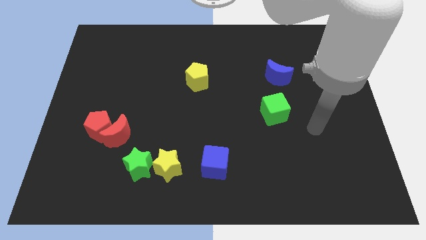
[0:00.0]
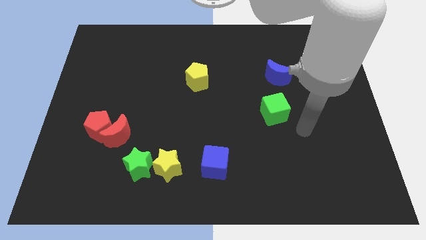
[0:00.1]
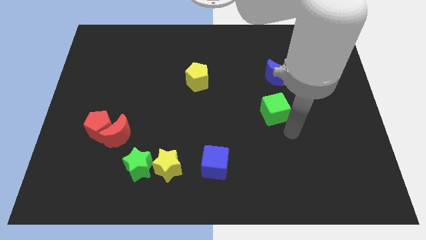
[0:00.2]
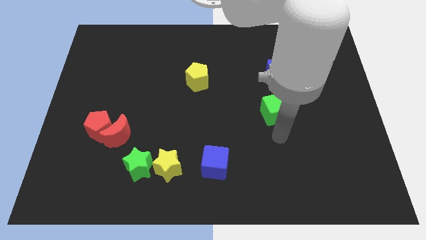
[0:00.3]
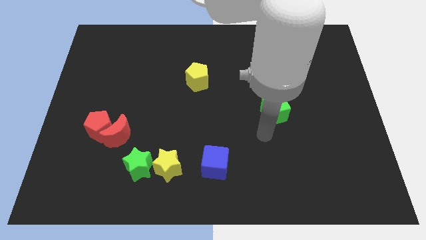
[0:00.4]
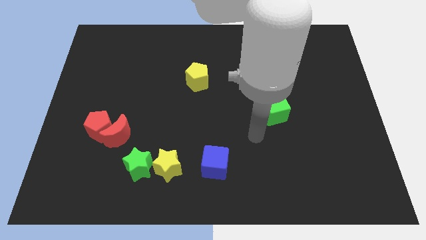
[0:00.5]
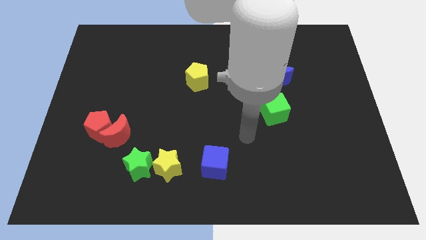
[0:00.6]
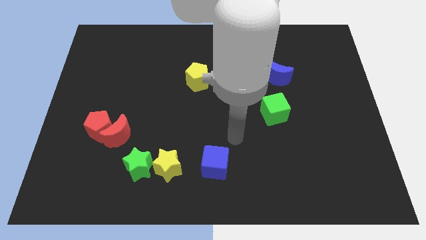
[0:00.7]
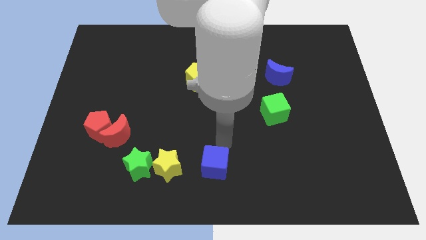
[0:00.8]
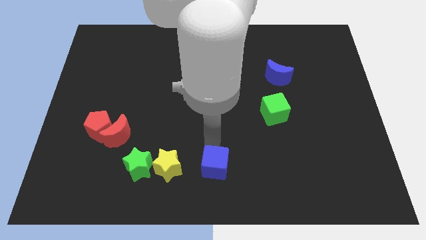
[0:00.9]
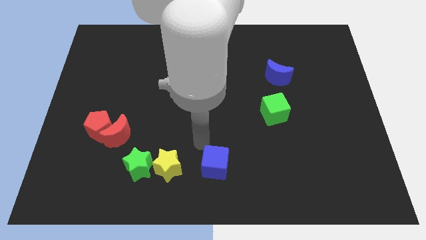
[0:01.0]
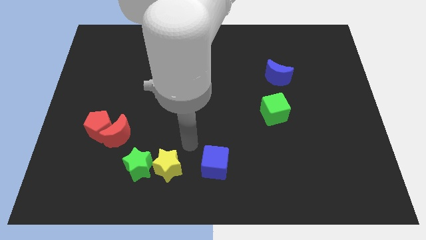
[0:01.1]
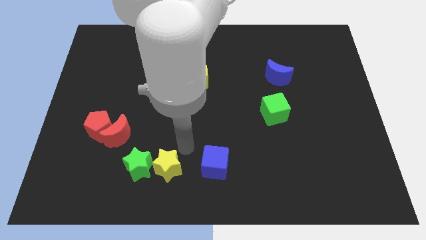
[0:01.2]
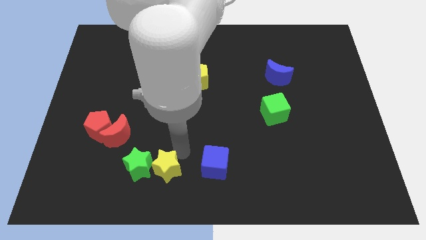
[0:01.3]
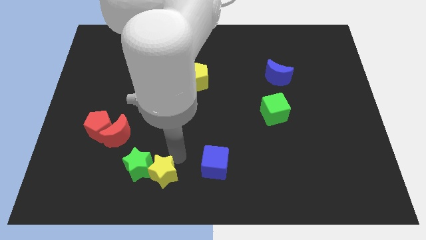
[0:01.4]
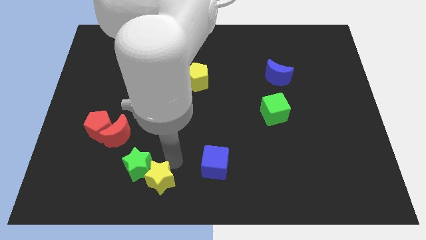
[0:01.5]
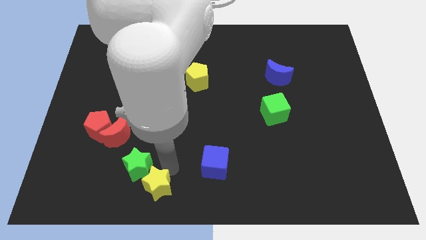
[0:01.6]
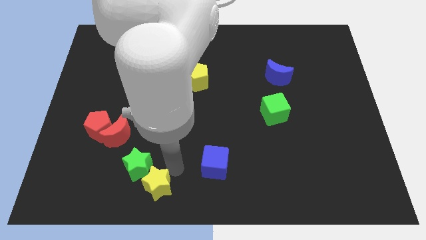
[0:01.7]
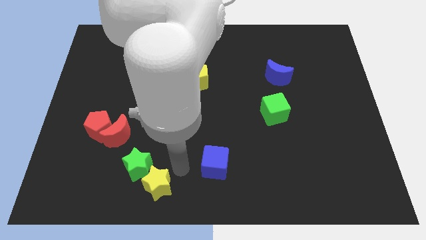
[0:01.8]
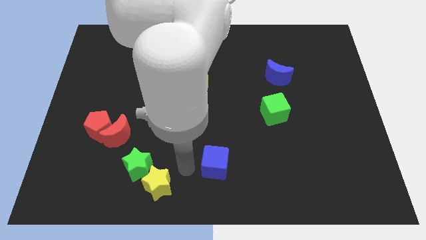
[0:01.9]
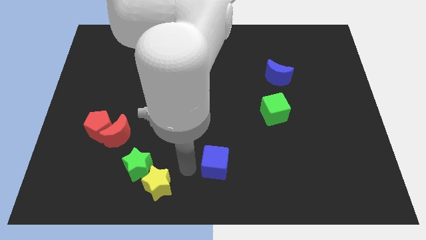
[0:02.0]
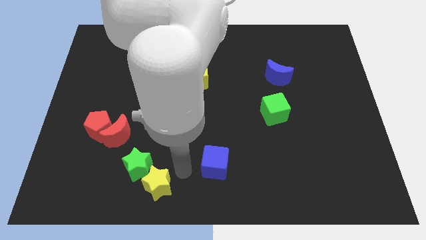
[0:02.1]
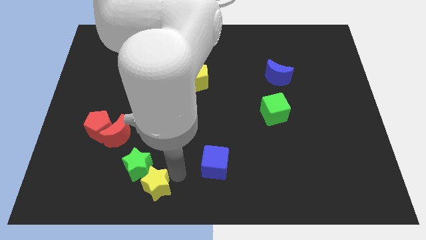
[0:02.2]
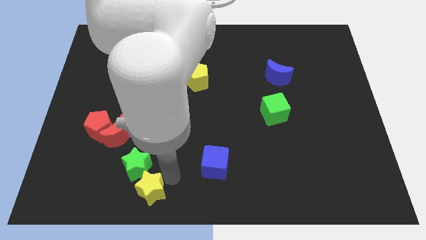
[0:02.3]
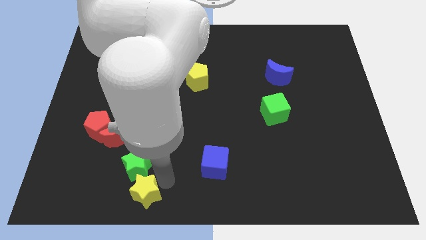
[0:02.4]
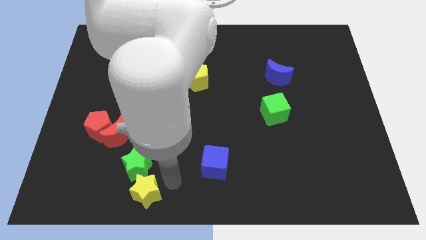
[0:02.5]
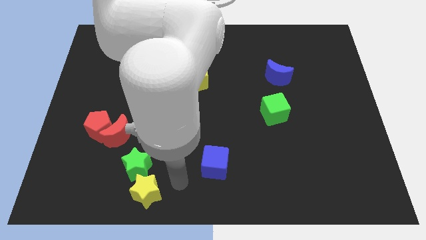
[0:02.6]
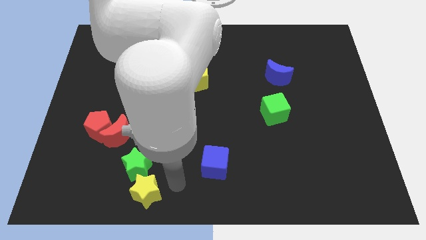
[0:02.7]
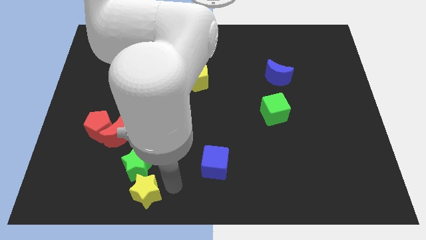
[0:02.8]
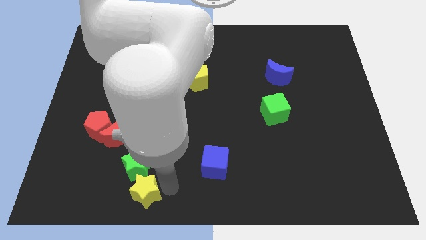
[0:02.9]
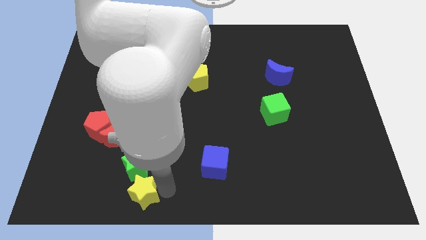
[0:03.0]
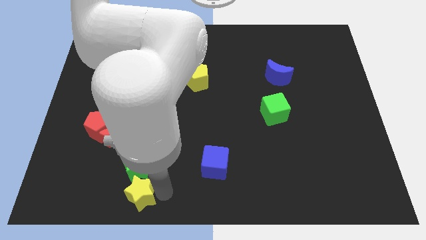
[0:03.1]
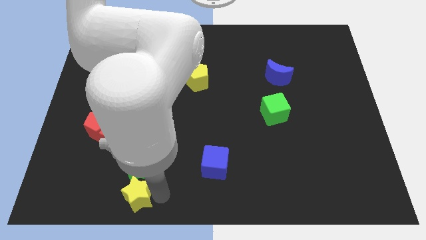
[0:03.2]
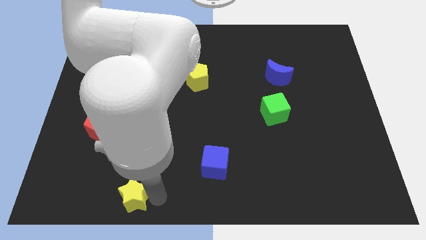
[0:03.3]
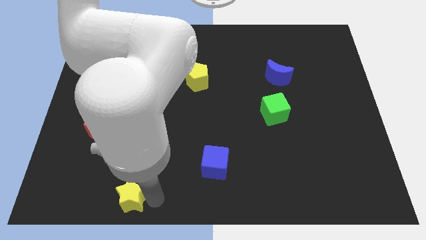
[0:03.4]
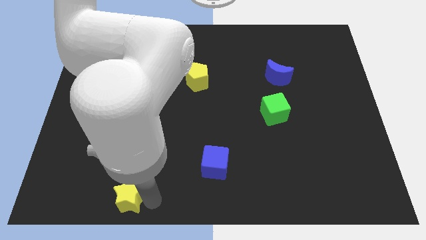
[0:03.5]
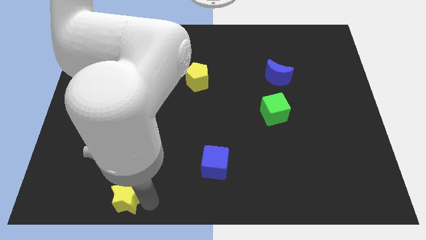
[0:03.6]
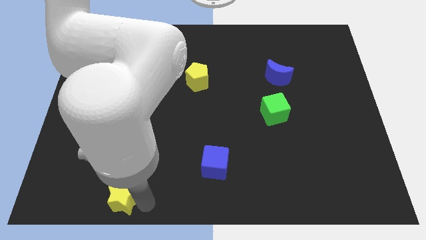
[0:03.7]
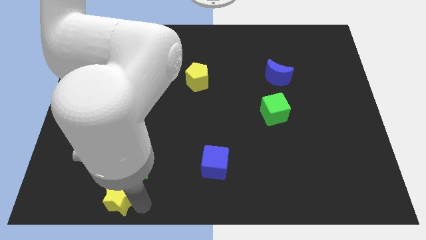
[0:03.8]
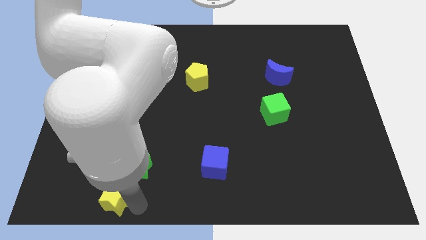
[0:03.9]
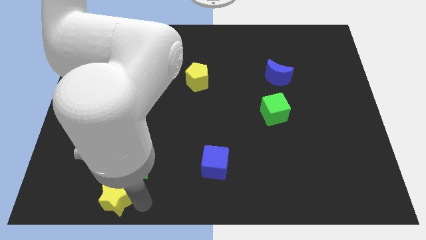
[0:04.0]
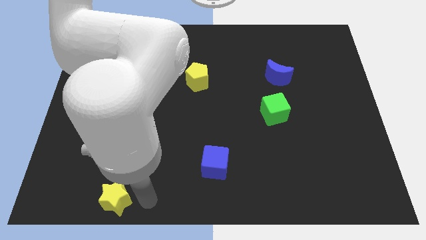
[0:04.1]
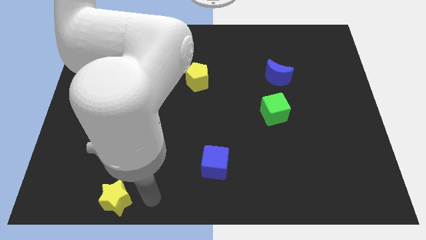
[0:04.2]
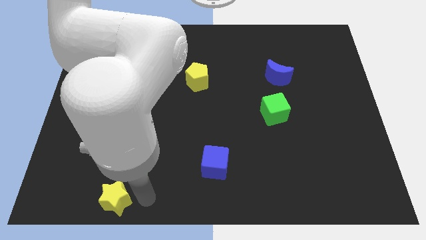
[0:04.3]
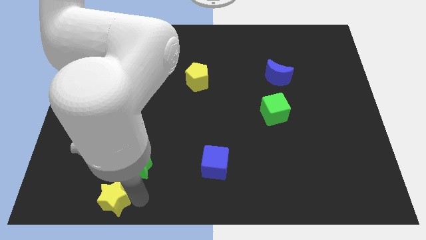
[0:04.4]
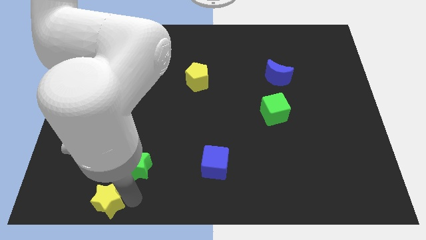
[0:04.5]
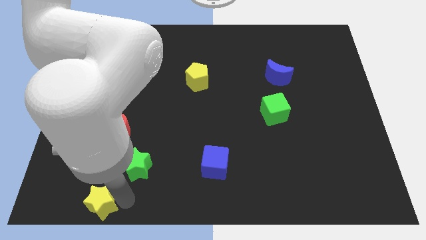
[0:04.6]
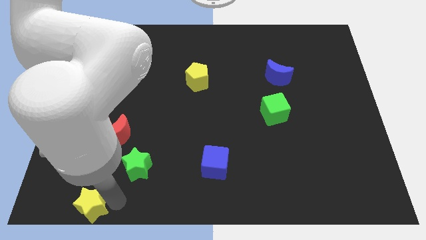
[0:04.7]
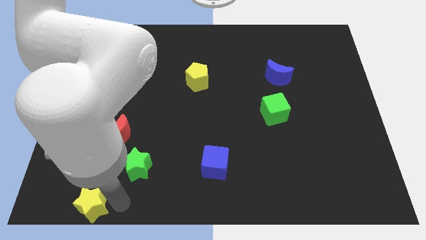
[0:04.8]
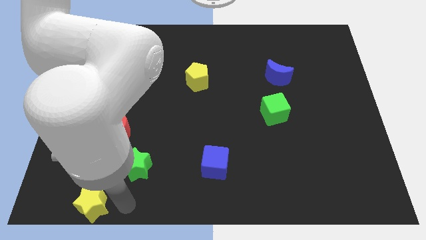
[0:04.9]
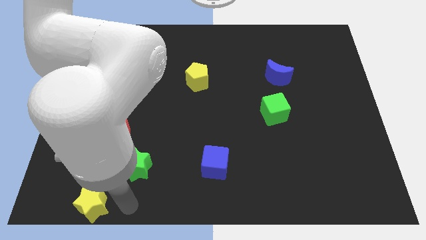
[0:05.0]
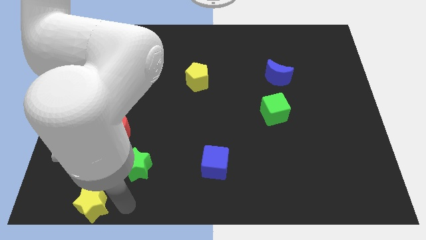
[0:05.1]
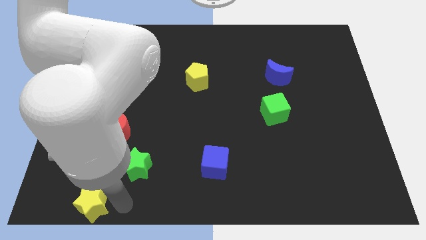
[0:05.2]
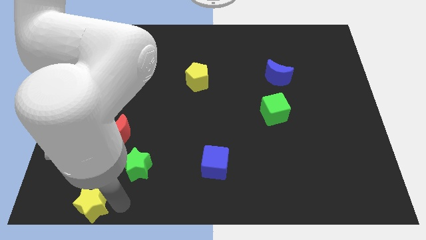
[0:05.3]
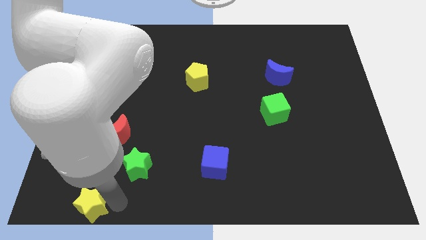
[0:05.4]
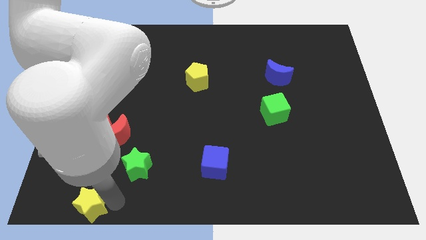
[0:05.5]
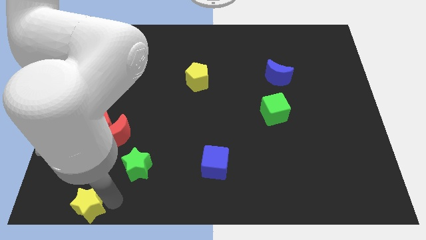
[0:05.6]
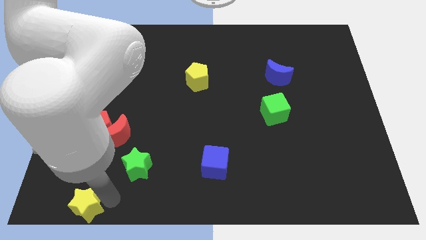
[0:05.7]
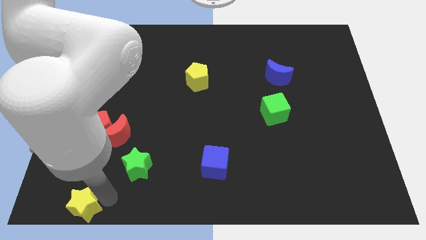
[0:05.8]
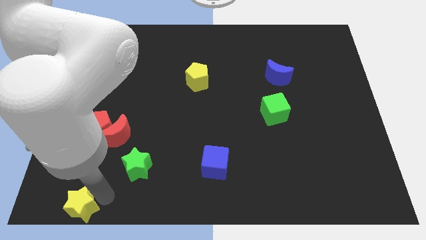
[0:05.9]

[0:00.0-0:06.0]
move the yellow star to the lower left corner

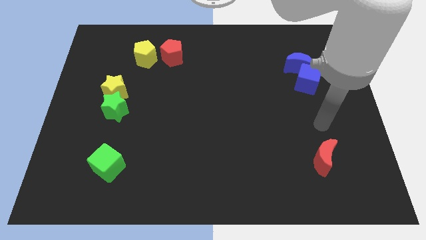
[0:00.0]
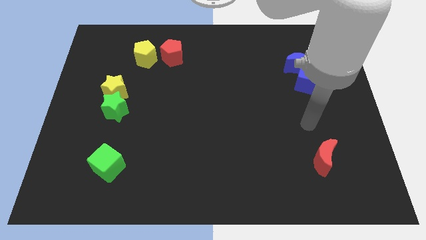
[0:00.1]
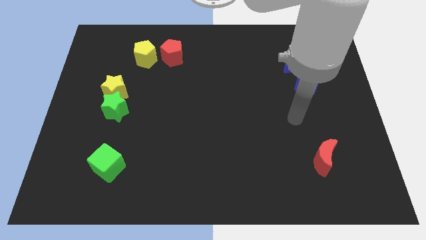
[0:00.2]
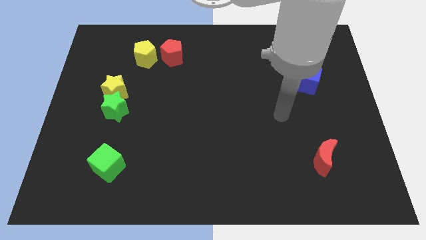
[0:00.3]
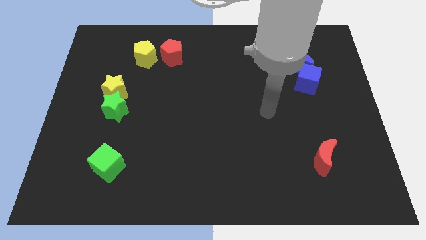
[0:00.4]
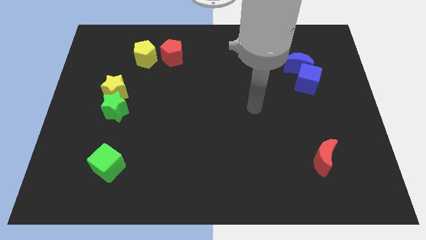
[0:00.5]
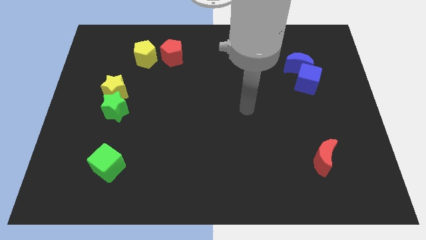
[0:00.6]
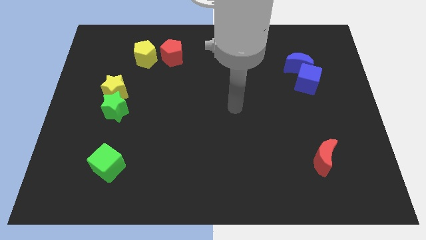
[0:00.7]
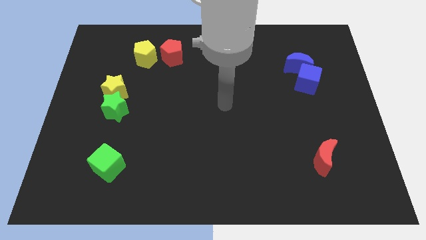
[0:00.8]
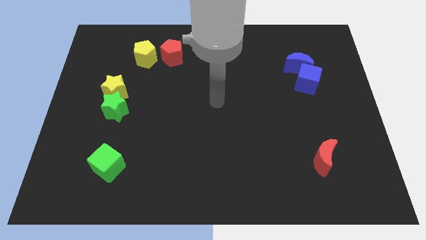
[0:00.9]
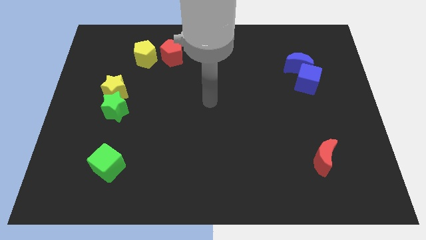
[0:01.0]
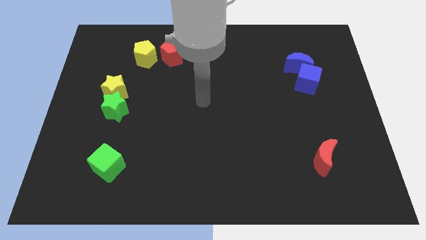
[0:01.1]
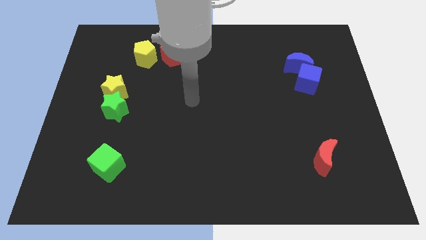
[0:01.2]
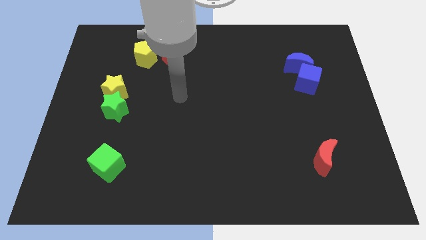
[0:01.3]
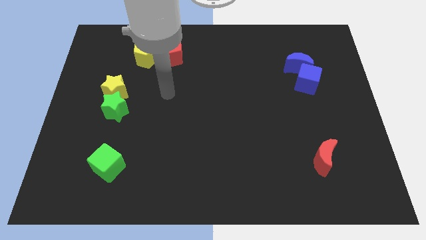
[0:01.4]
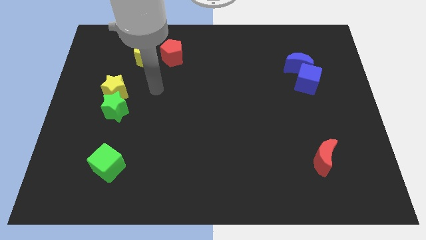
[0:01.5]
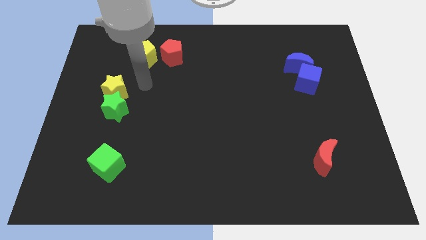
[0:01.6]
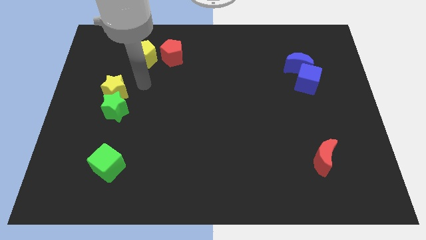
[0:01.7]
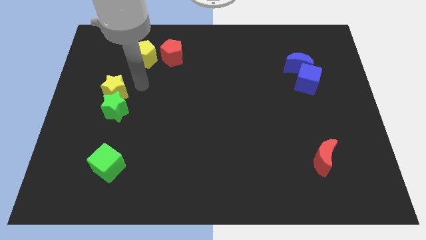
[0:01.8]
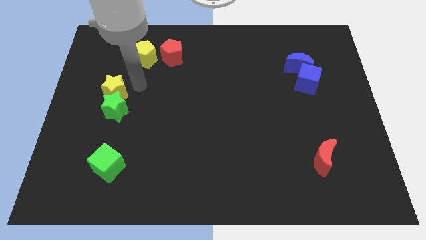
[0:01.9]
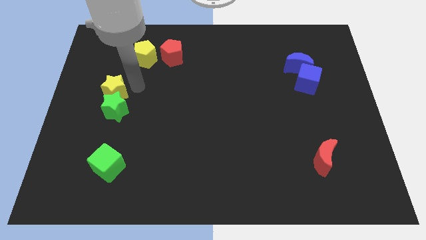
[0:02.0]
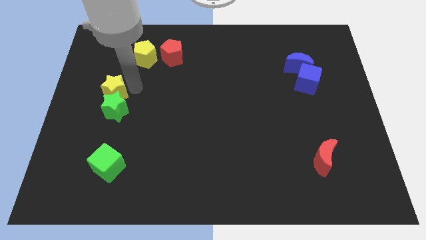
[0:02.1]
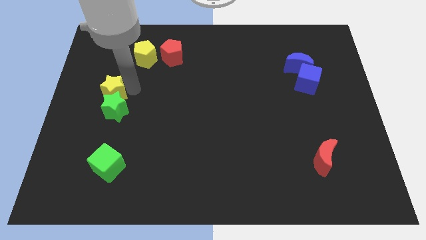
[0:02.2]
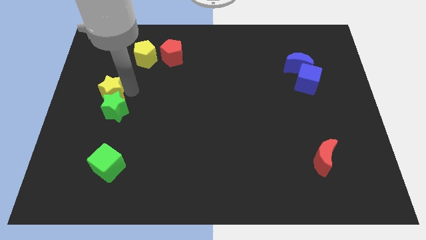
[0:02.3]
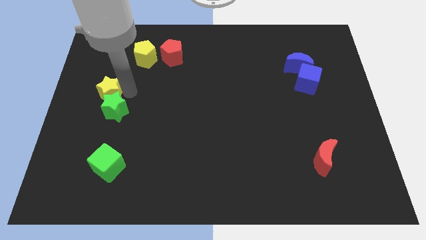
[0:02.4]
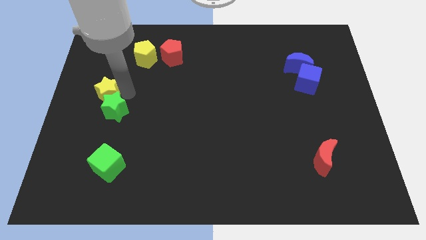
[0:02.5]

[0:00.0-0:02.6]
move the yellow star to the center left
